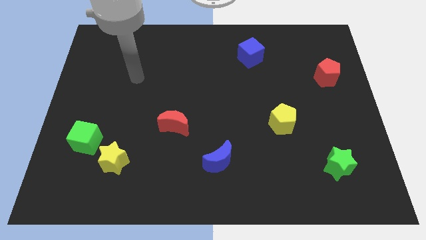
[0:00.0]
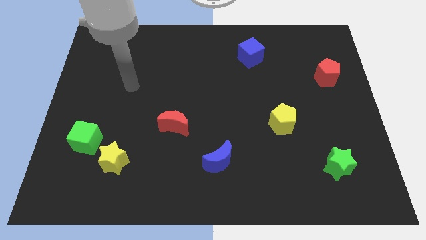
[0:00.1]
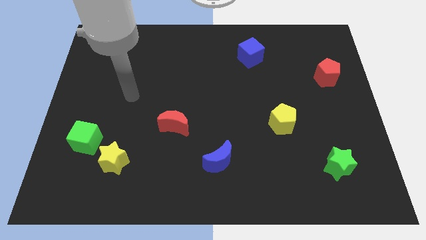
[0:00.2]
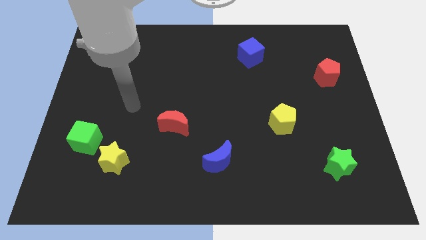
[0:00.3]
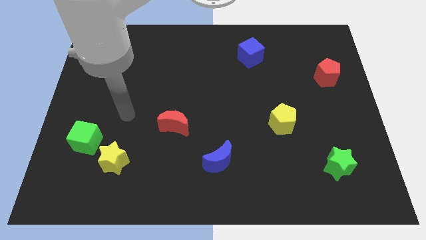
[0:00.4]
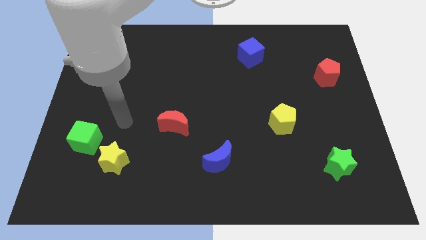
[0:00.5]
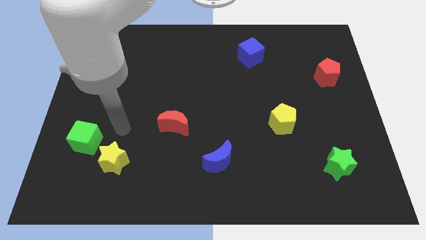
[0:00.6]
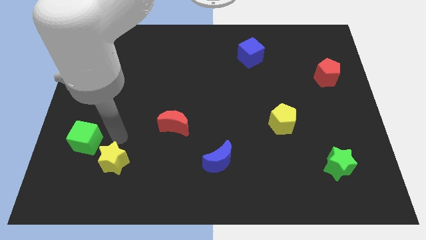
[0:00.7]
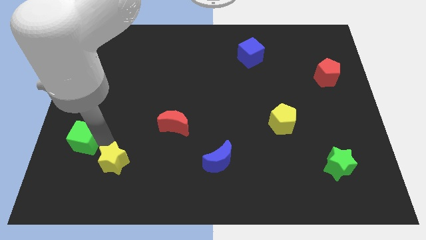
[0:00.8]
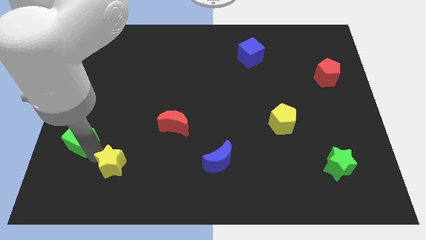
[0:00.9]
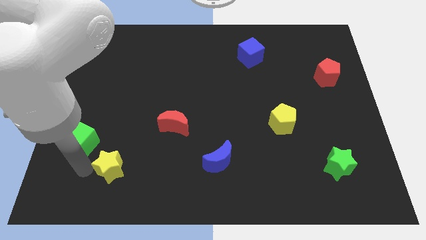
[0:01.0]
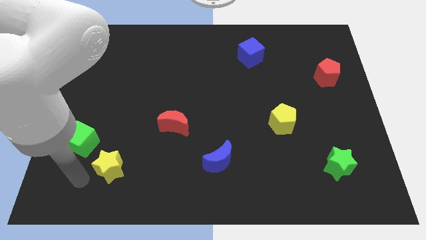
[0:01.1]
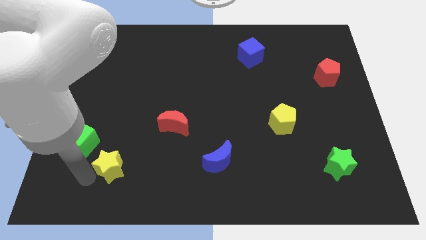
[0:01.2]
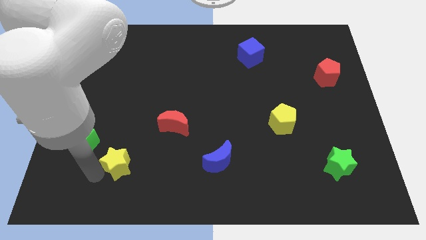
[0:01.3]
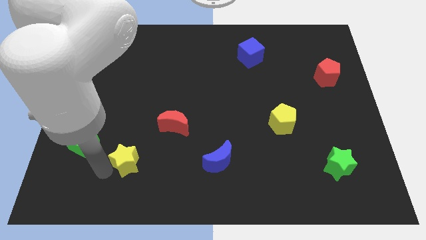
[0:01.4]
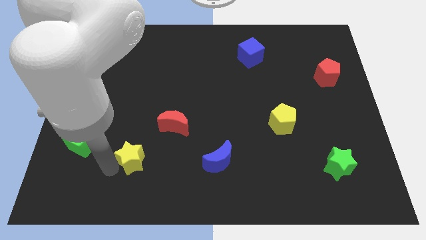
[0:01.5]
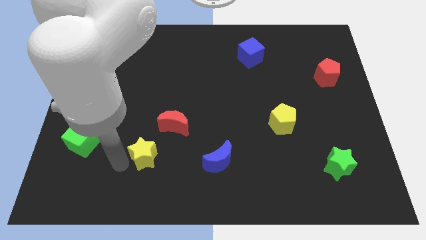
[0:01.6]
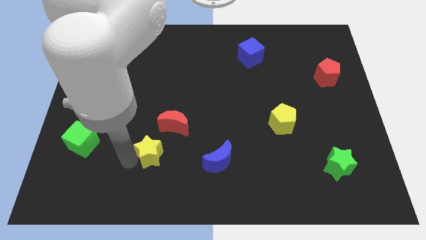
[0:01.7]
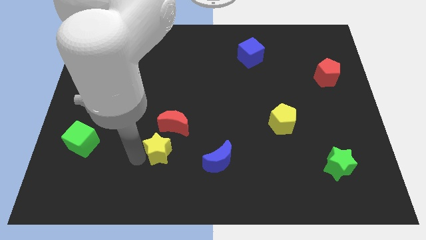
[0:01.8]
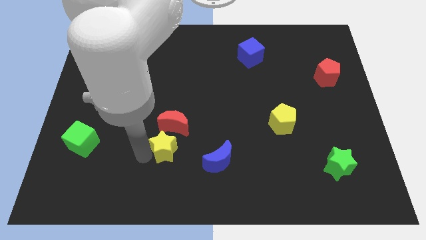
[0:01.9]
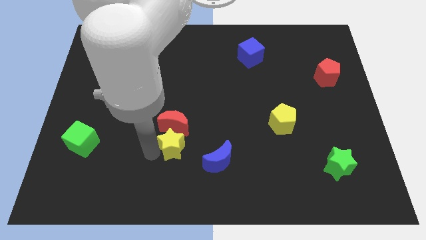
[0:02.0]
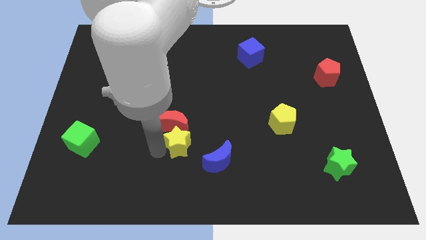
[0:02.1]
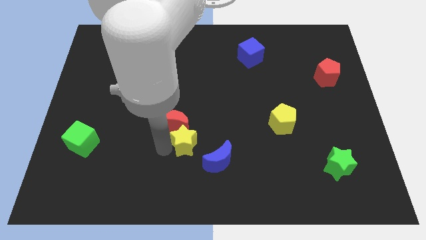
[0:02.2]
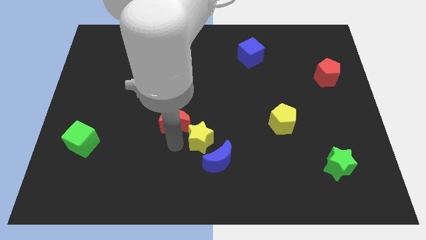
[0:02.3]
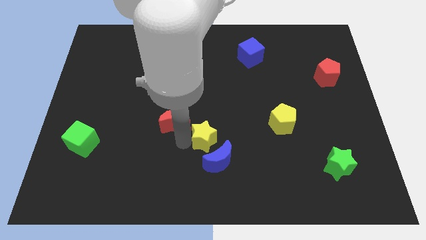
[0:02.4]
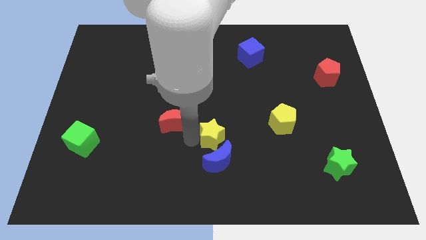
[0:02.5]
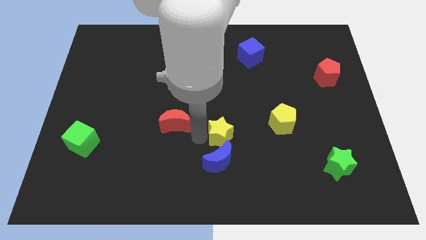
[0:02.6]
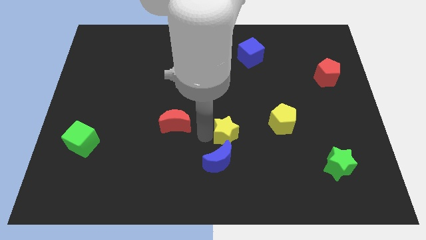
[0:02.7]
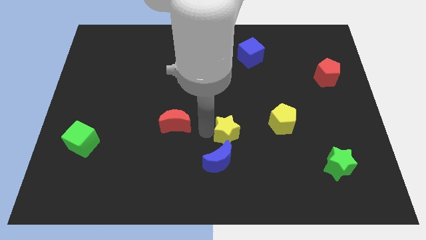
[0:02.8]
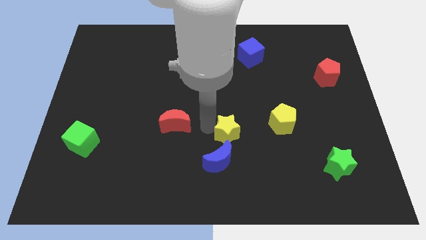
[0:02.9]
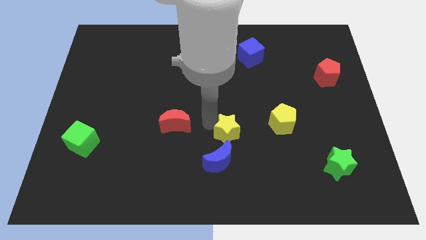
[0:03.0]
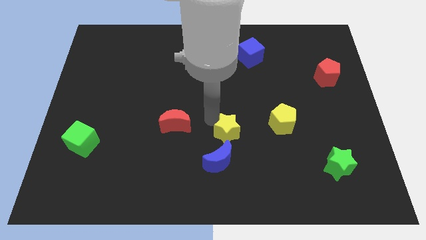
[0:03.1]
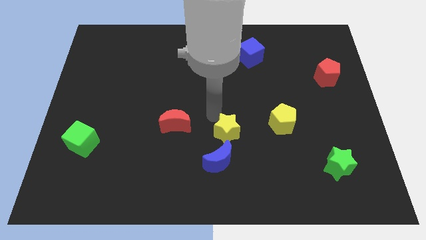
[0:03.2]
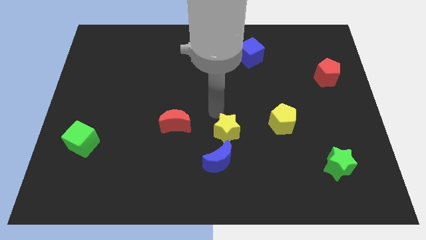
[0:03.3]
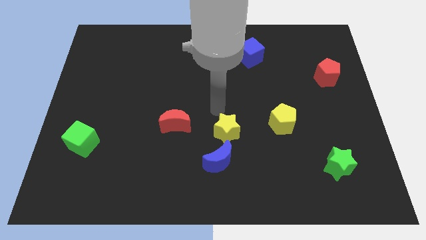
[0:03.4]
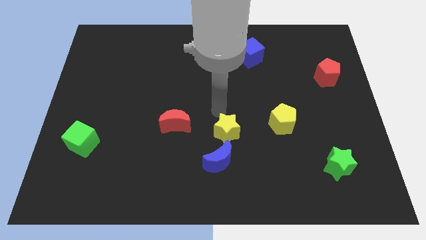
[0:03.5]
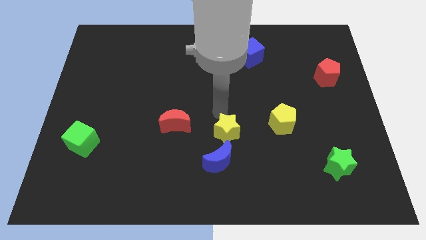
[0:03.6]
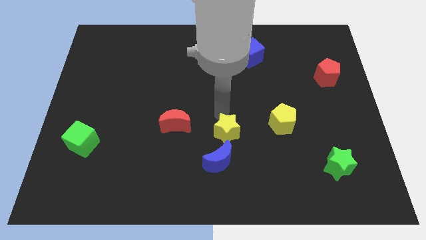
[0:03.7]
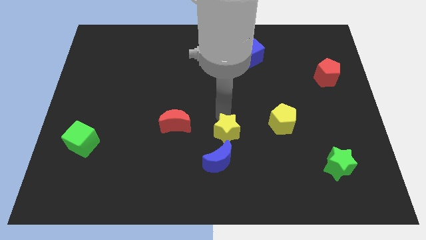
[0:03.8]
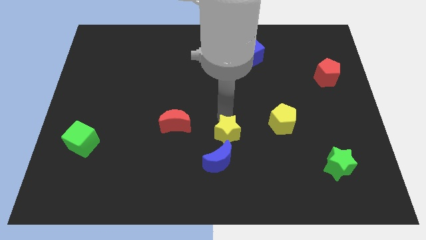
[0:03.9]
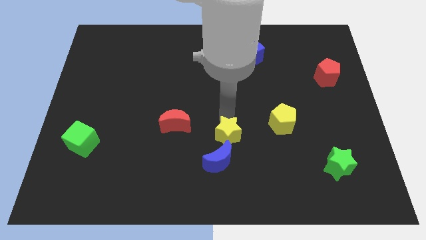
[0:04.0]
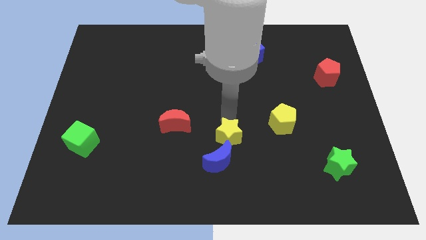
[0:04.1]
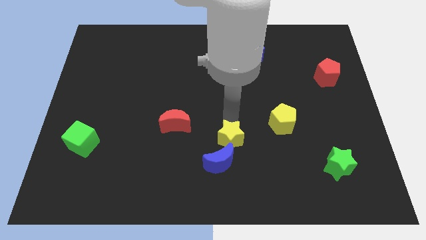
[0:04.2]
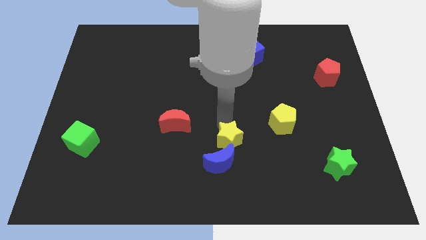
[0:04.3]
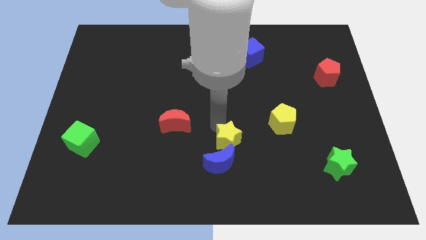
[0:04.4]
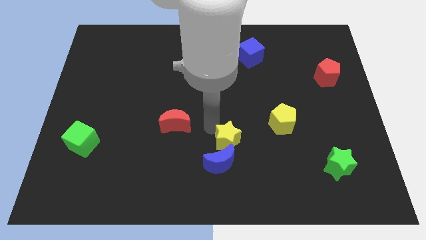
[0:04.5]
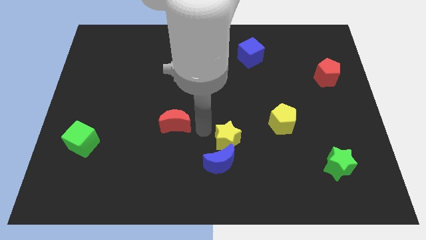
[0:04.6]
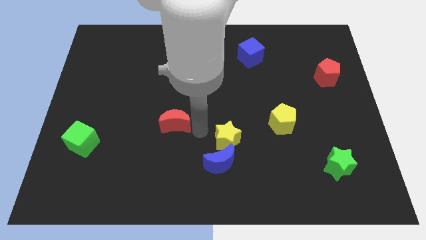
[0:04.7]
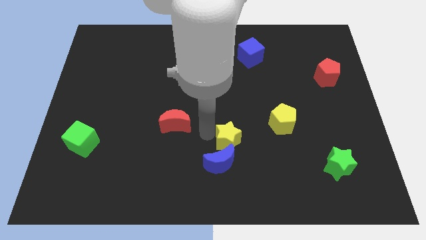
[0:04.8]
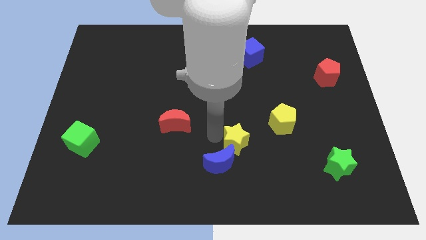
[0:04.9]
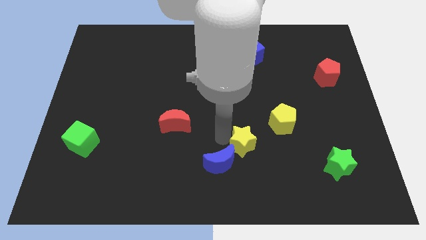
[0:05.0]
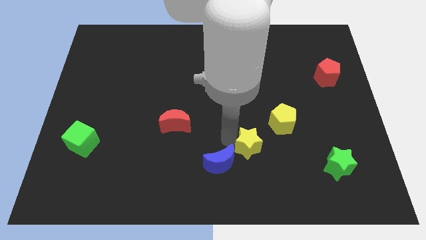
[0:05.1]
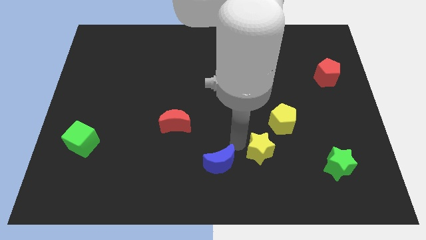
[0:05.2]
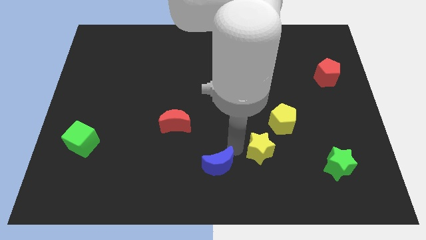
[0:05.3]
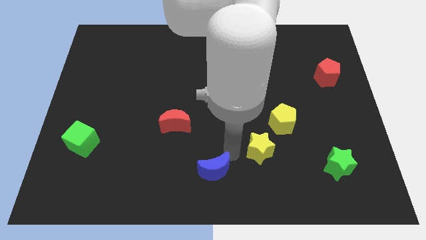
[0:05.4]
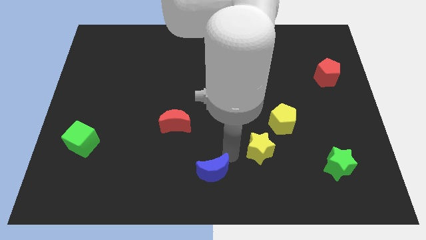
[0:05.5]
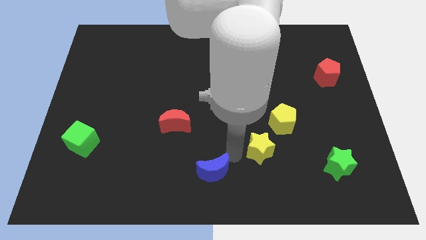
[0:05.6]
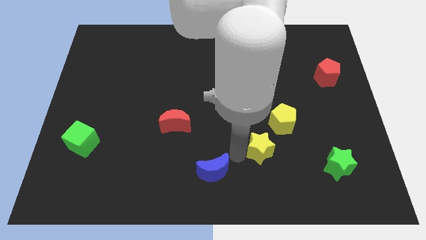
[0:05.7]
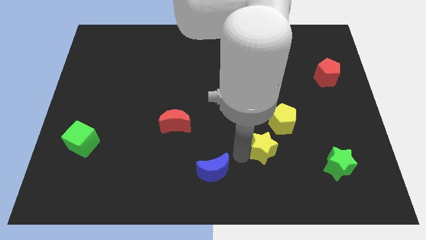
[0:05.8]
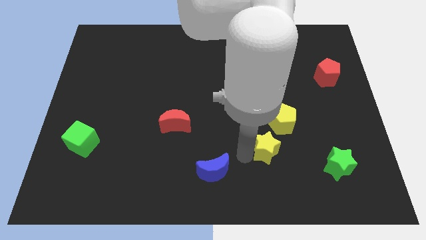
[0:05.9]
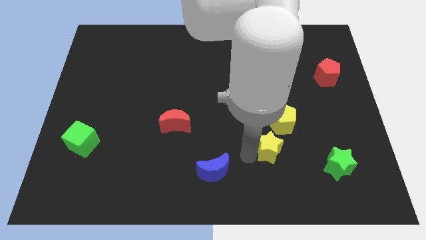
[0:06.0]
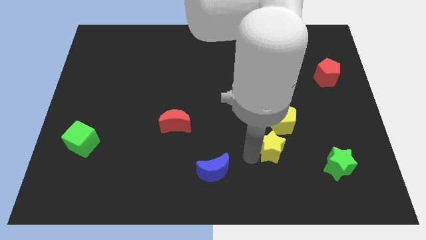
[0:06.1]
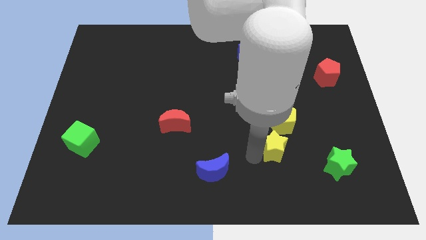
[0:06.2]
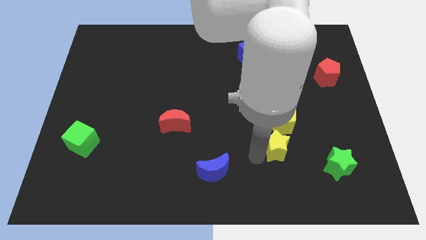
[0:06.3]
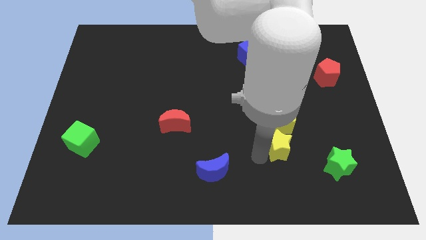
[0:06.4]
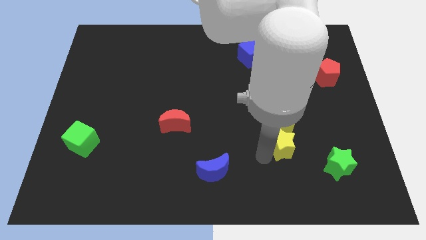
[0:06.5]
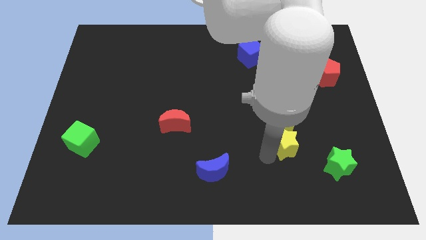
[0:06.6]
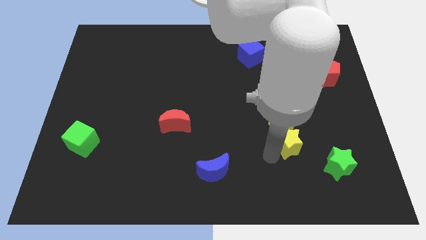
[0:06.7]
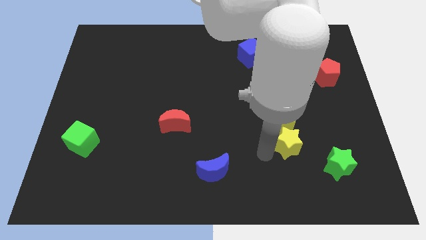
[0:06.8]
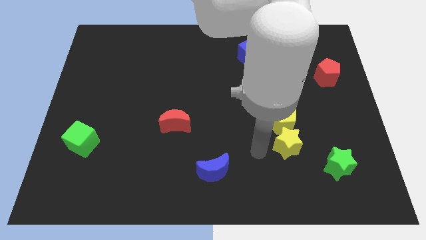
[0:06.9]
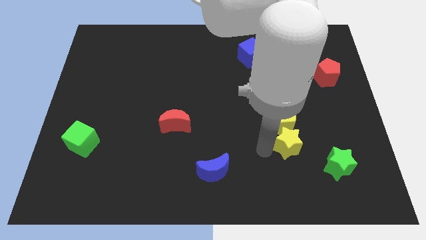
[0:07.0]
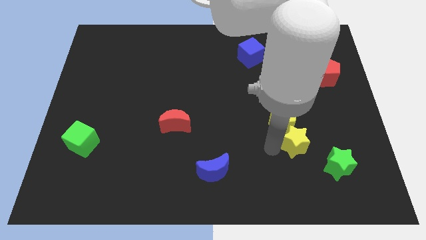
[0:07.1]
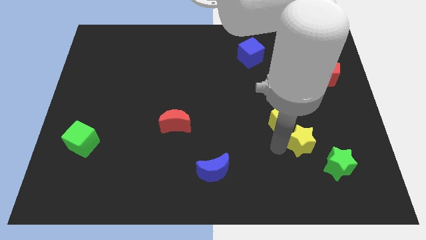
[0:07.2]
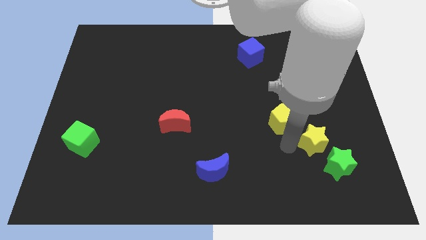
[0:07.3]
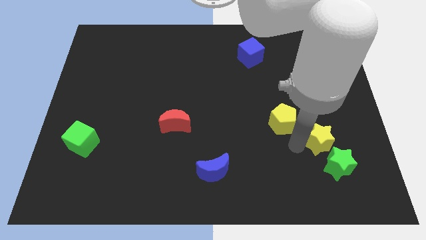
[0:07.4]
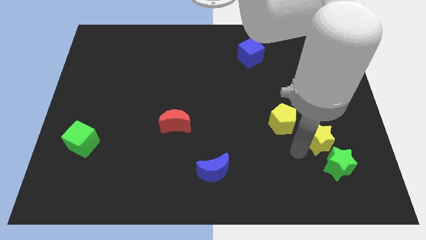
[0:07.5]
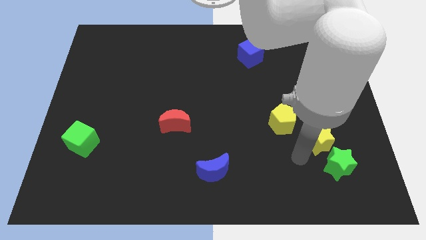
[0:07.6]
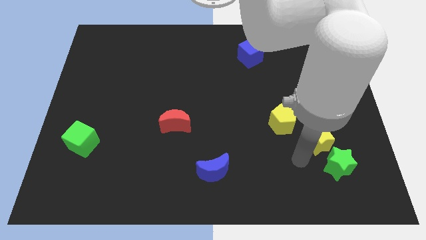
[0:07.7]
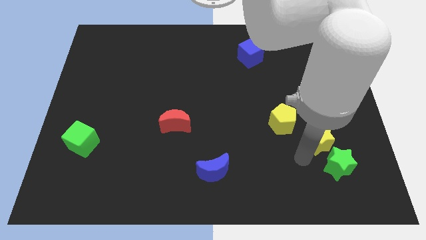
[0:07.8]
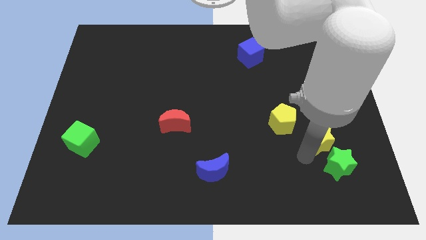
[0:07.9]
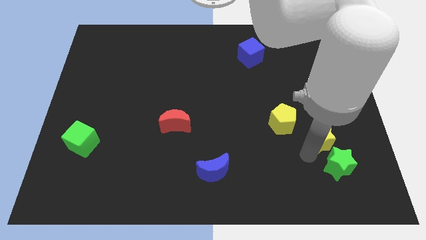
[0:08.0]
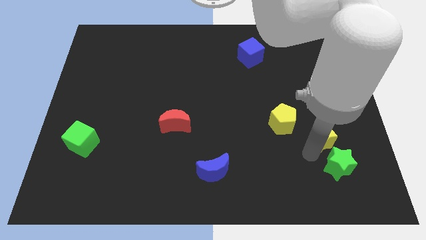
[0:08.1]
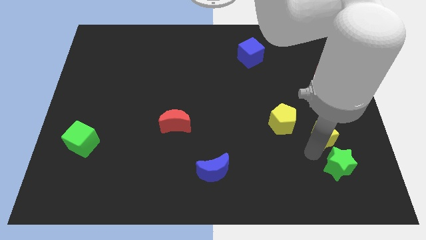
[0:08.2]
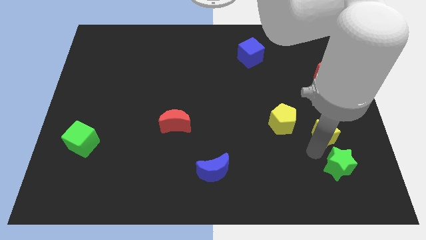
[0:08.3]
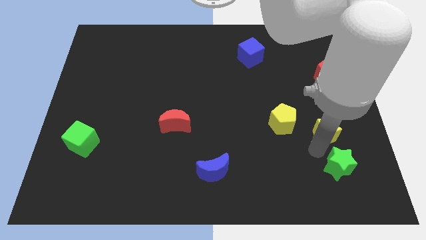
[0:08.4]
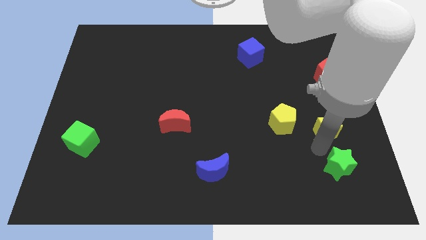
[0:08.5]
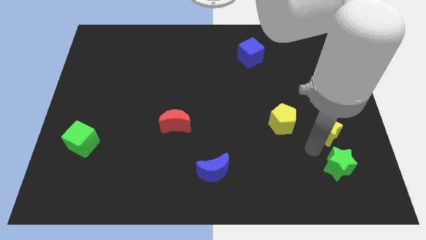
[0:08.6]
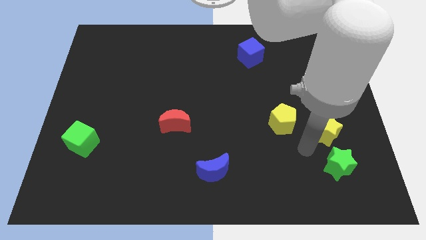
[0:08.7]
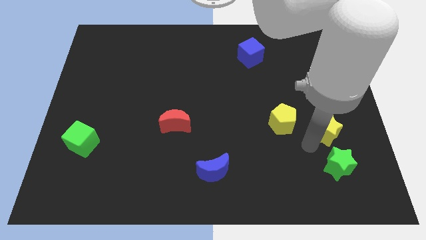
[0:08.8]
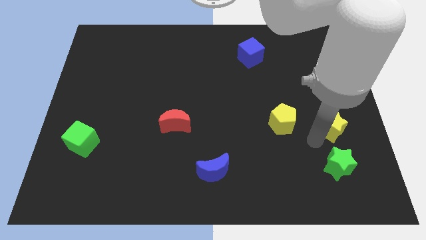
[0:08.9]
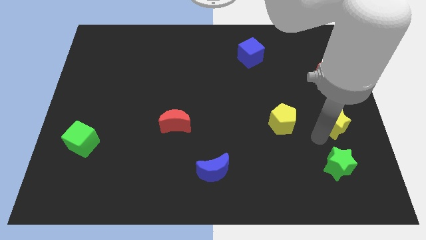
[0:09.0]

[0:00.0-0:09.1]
push the yellow star to the right side
